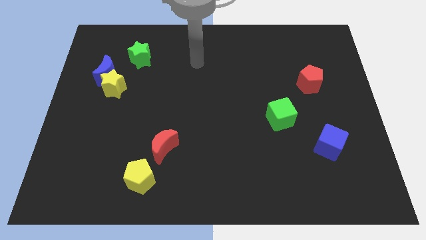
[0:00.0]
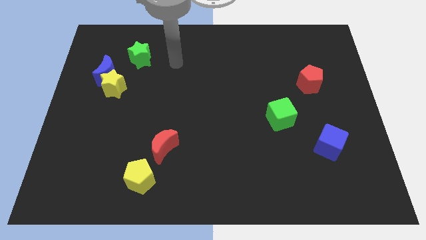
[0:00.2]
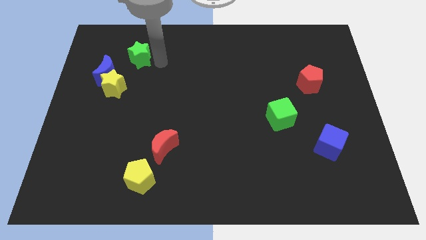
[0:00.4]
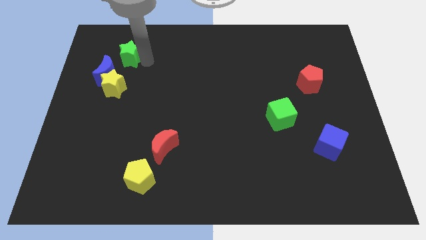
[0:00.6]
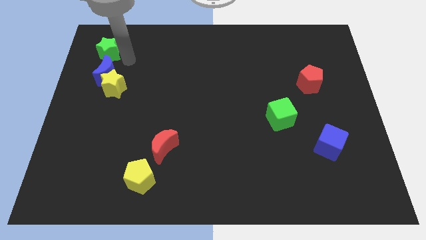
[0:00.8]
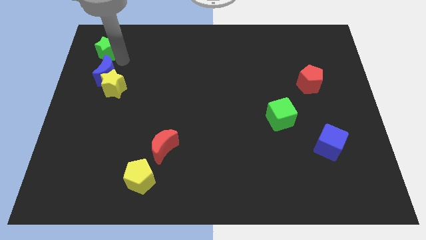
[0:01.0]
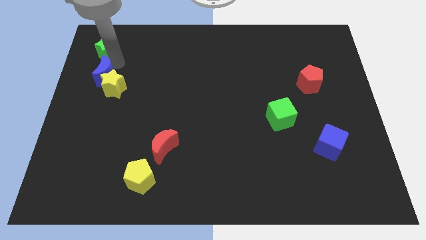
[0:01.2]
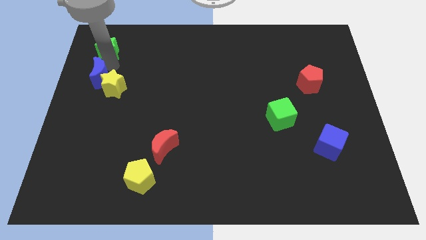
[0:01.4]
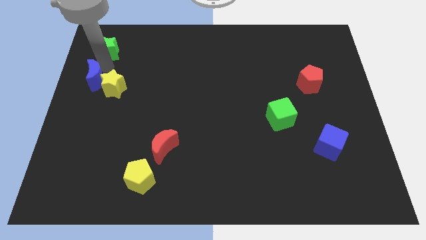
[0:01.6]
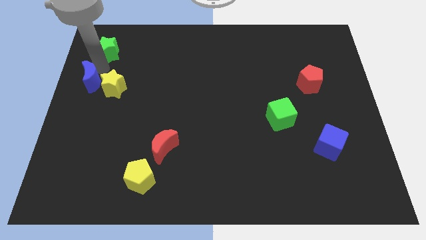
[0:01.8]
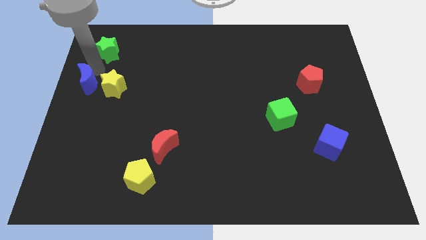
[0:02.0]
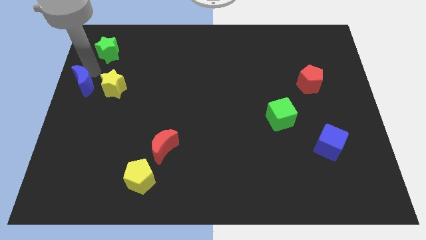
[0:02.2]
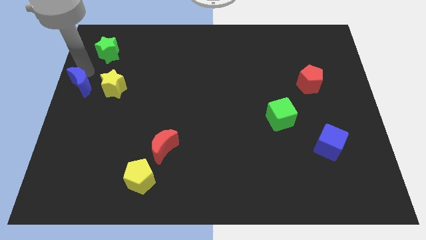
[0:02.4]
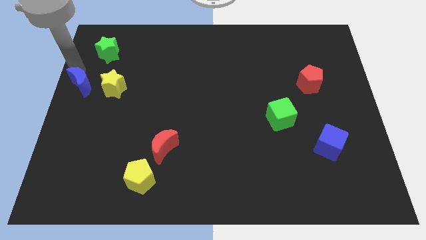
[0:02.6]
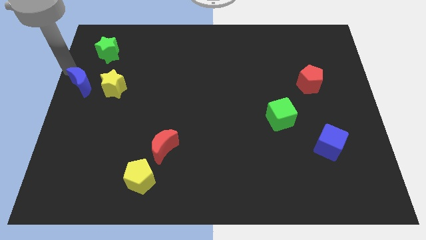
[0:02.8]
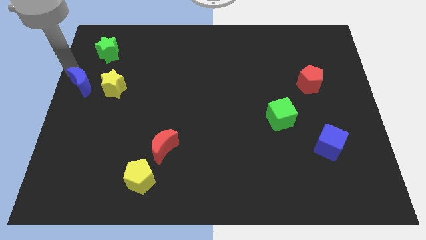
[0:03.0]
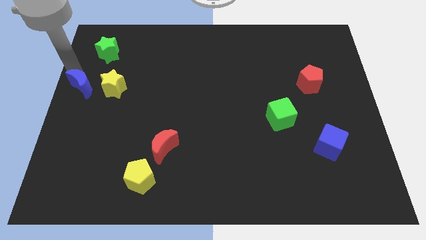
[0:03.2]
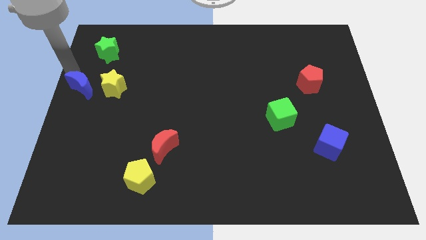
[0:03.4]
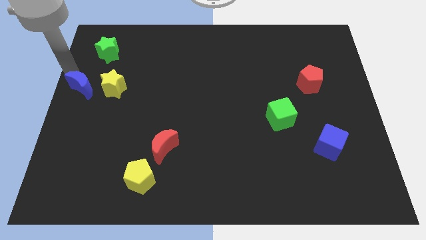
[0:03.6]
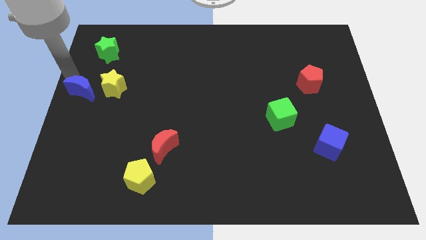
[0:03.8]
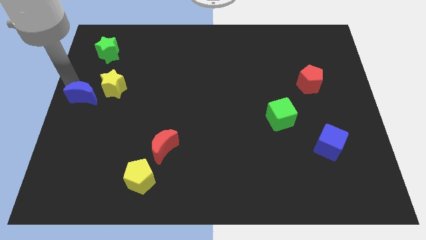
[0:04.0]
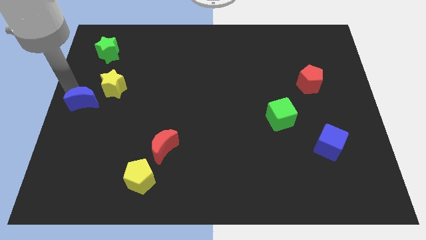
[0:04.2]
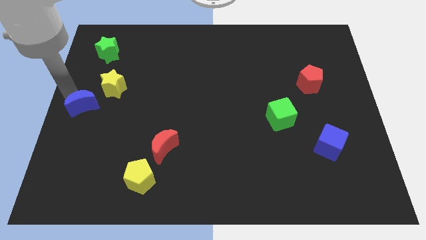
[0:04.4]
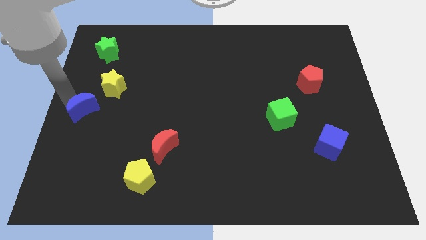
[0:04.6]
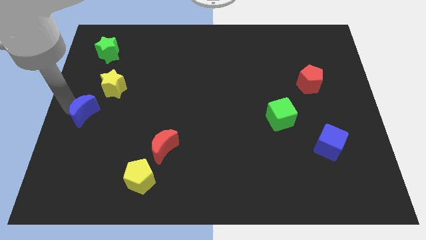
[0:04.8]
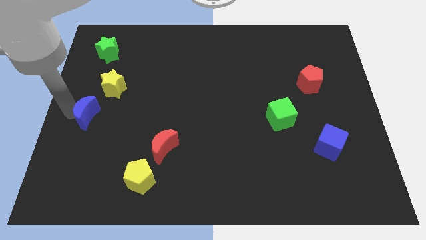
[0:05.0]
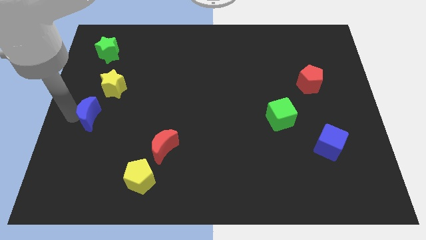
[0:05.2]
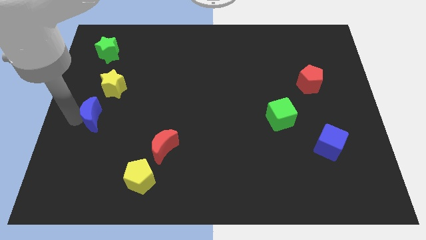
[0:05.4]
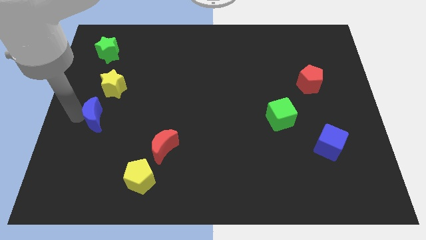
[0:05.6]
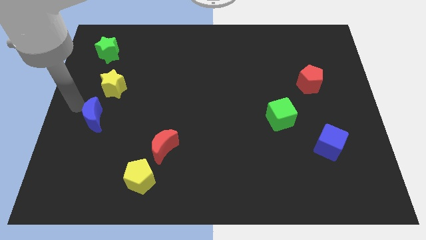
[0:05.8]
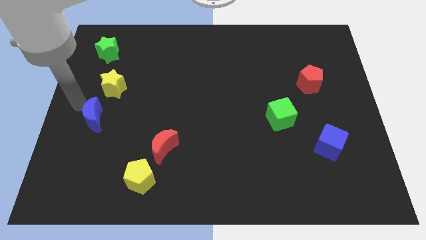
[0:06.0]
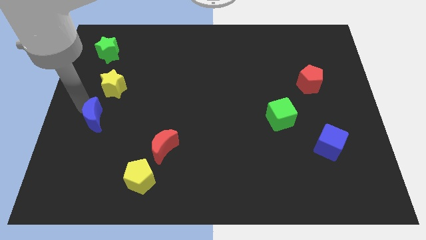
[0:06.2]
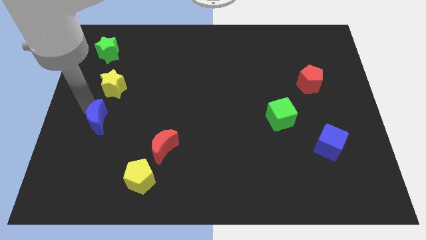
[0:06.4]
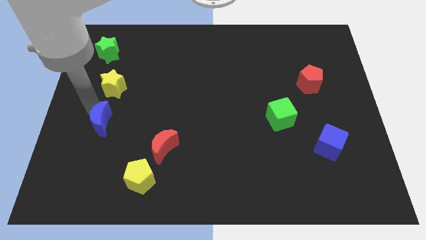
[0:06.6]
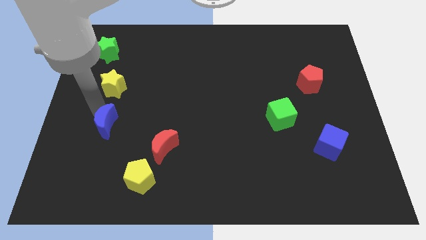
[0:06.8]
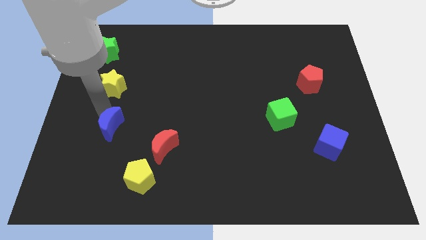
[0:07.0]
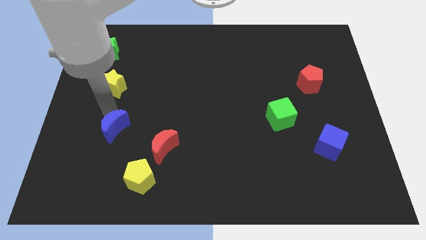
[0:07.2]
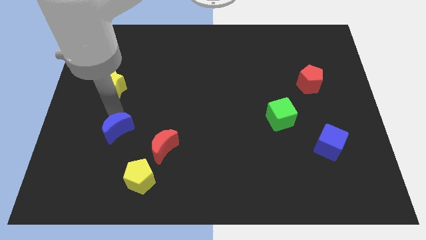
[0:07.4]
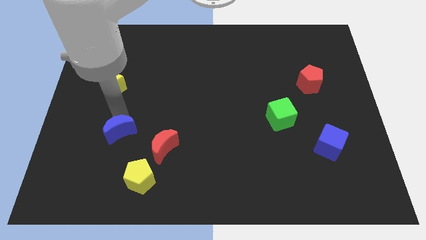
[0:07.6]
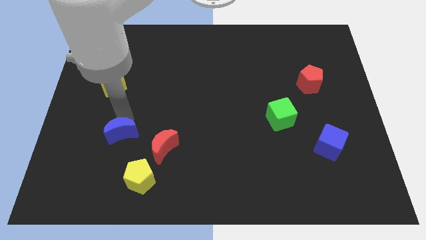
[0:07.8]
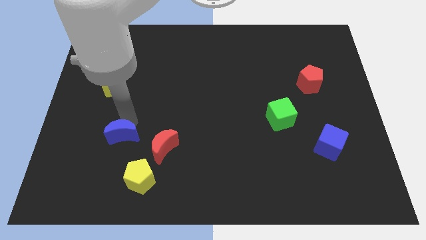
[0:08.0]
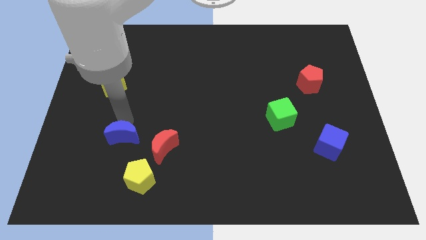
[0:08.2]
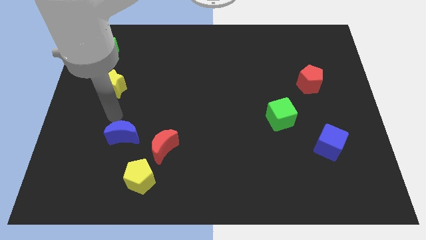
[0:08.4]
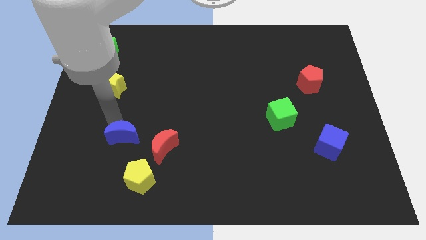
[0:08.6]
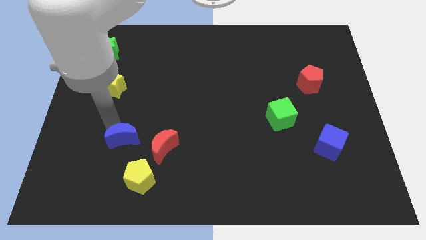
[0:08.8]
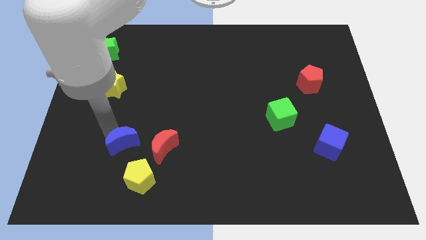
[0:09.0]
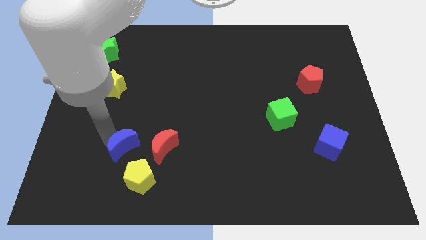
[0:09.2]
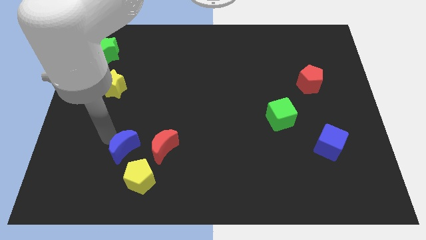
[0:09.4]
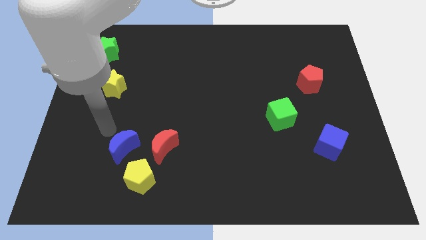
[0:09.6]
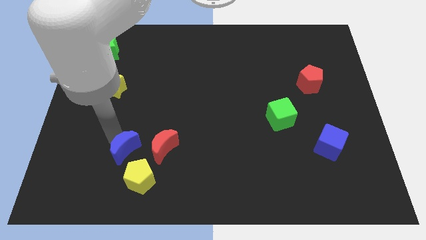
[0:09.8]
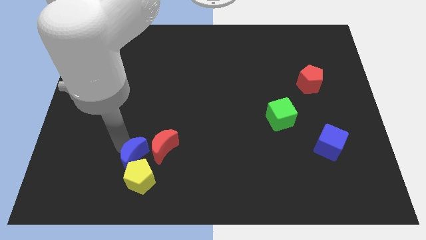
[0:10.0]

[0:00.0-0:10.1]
push the blue moon next to the yellow pentagon

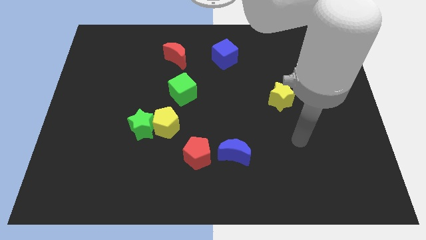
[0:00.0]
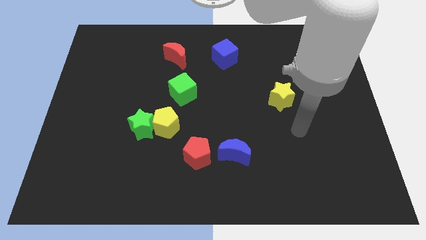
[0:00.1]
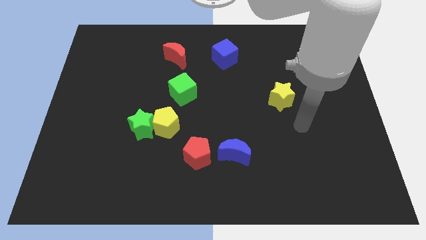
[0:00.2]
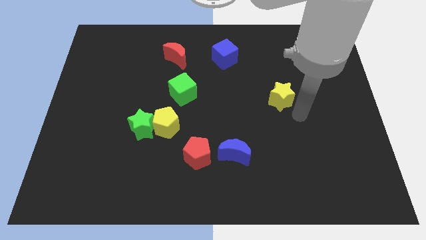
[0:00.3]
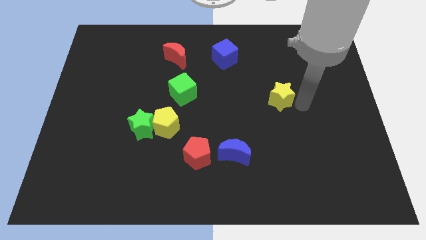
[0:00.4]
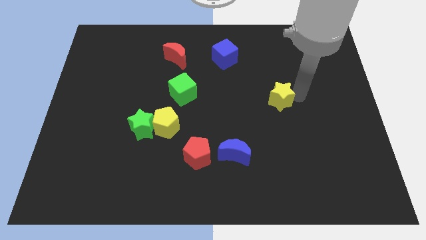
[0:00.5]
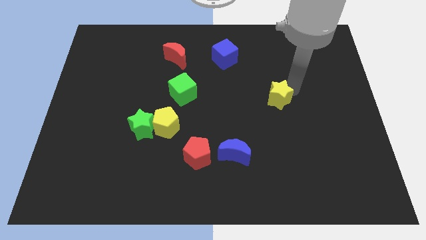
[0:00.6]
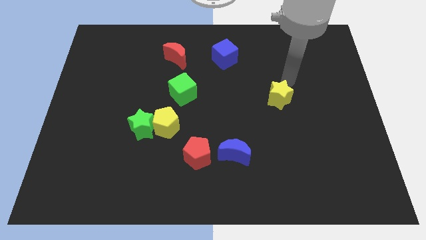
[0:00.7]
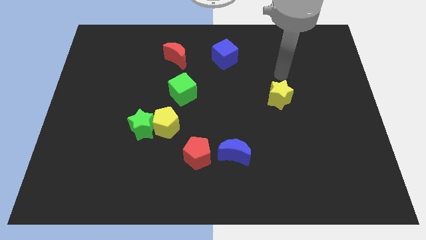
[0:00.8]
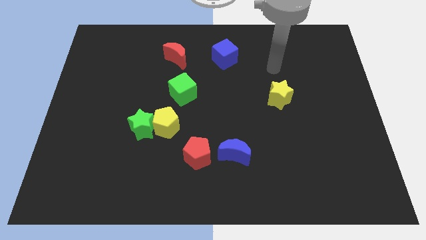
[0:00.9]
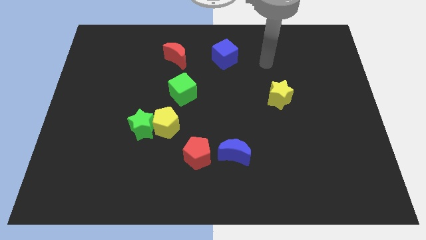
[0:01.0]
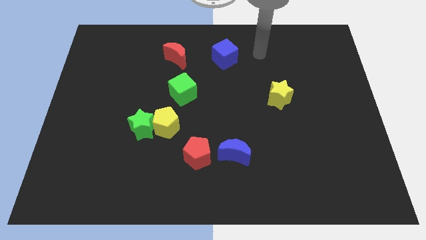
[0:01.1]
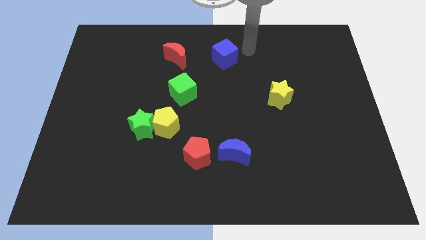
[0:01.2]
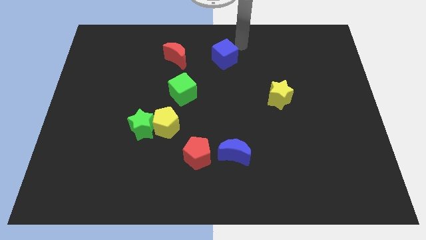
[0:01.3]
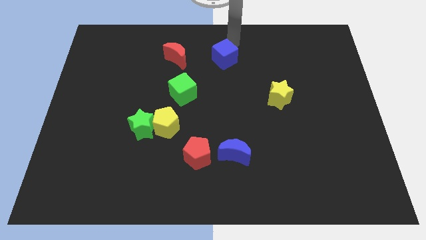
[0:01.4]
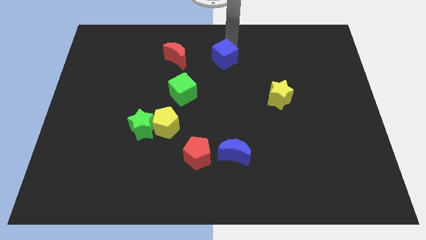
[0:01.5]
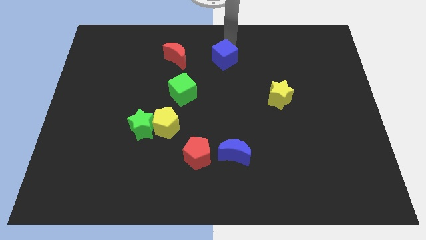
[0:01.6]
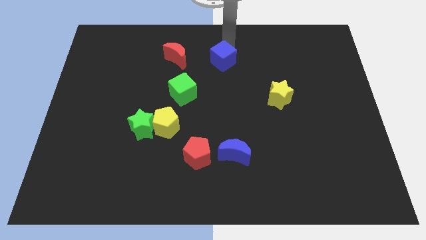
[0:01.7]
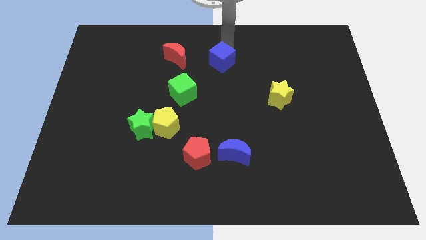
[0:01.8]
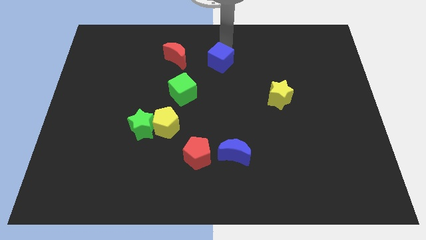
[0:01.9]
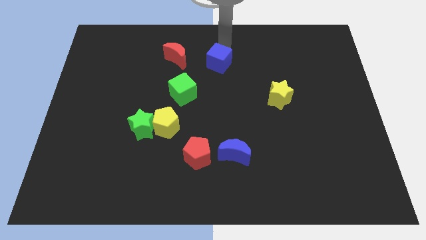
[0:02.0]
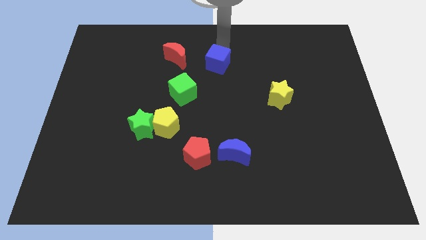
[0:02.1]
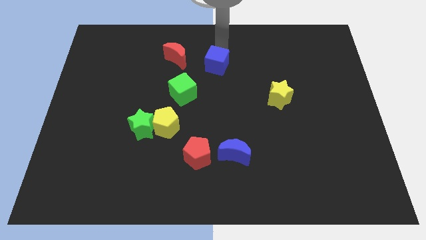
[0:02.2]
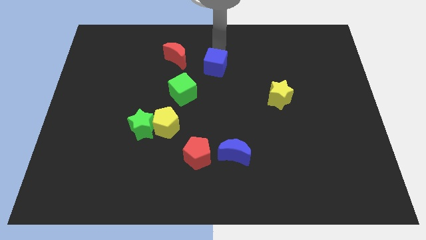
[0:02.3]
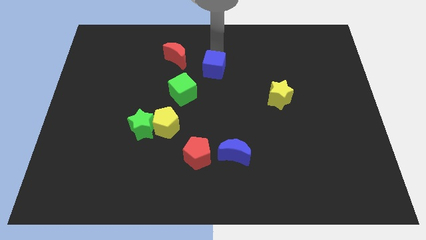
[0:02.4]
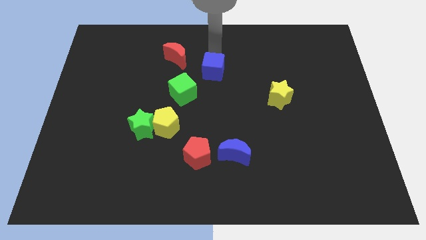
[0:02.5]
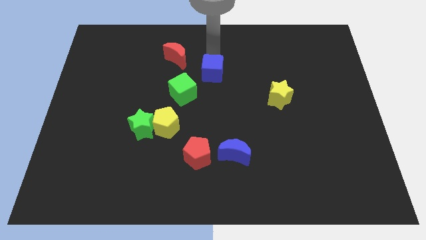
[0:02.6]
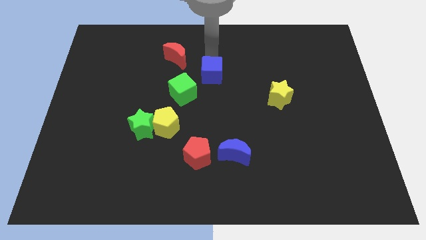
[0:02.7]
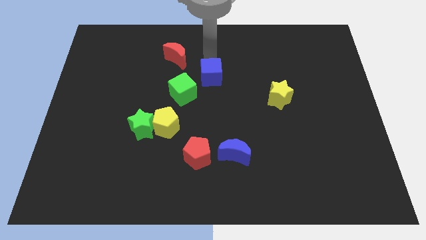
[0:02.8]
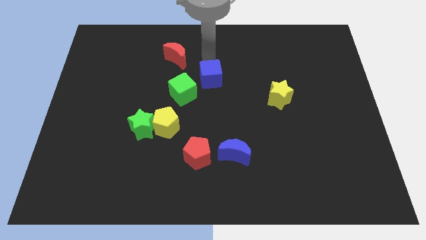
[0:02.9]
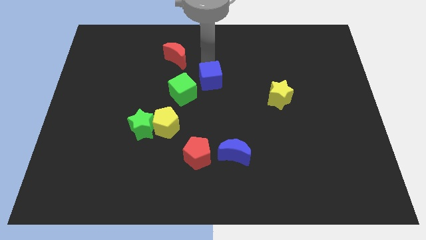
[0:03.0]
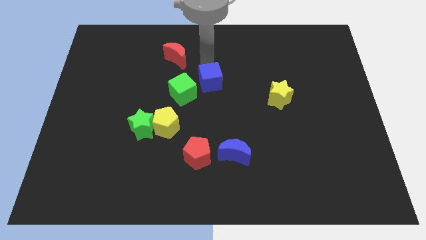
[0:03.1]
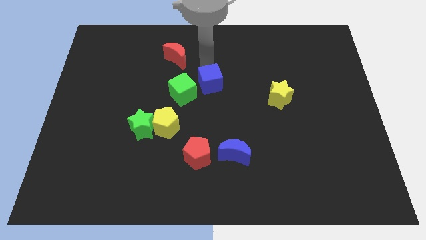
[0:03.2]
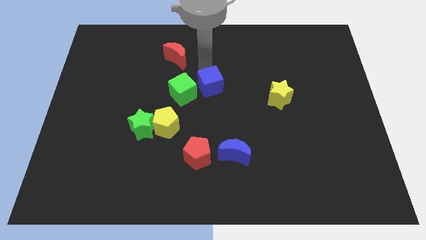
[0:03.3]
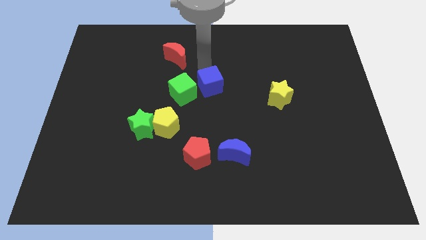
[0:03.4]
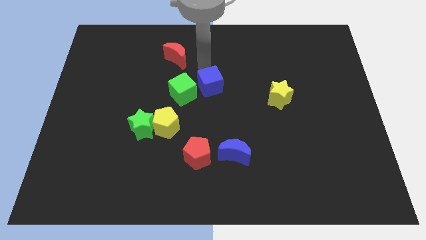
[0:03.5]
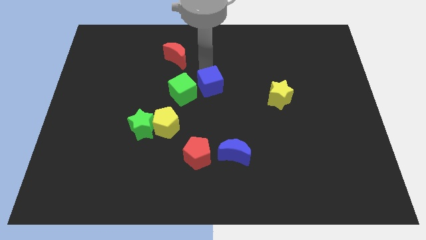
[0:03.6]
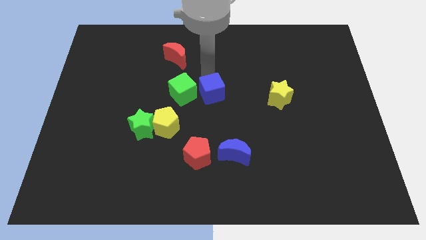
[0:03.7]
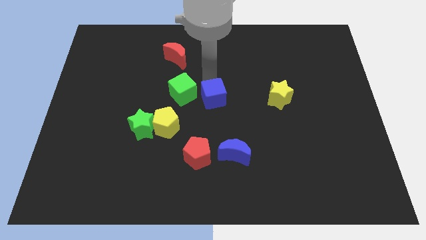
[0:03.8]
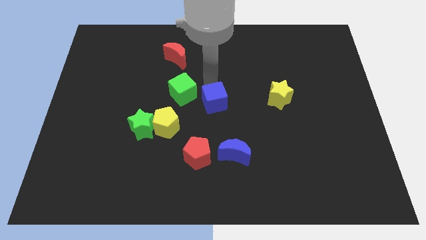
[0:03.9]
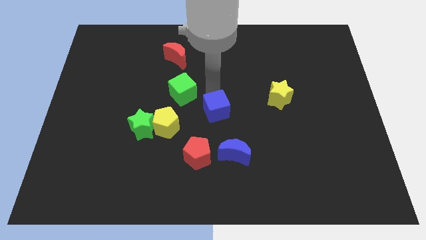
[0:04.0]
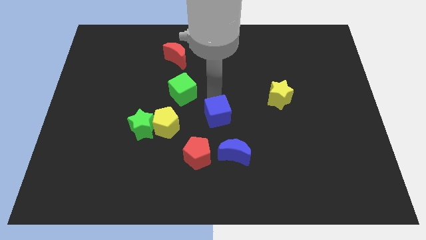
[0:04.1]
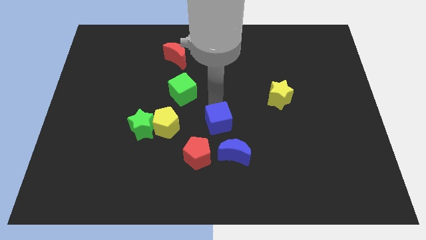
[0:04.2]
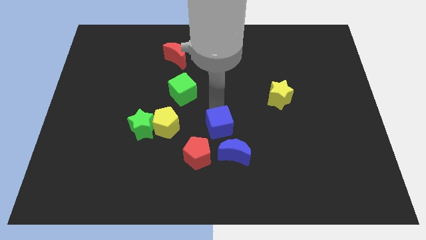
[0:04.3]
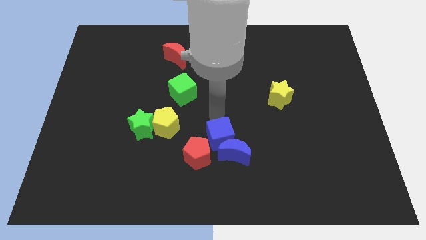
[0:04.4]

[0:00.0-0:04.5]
put the blue cube towards the blue moon
